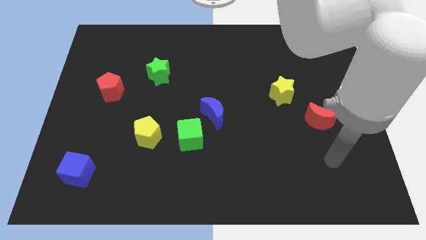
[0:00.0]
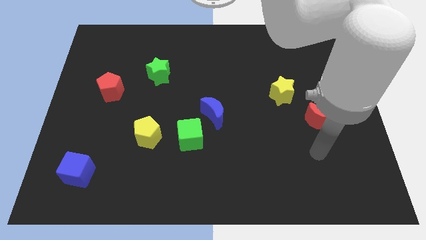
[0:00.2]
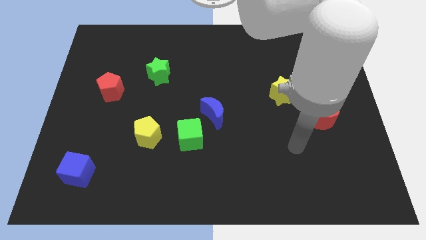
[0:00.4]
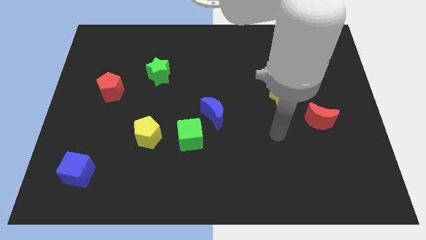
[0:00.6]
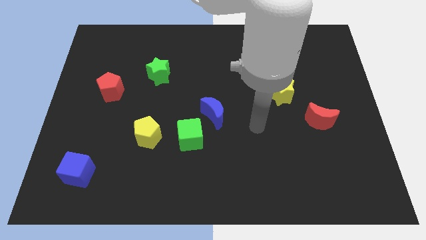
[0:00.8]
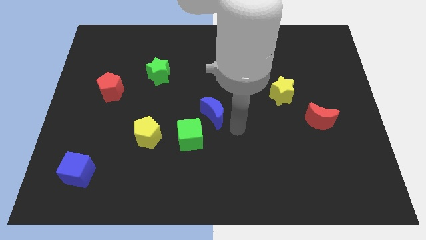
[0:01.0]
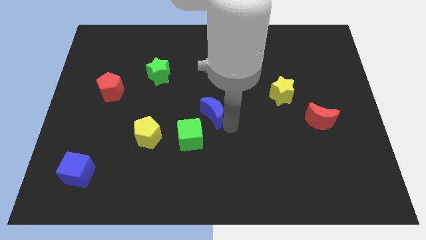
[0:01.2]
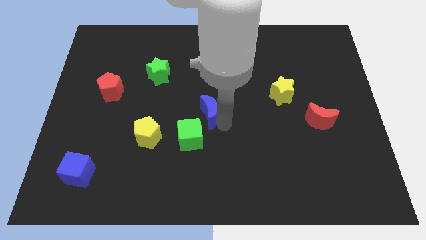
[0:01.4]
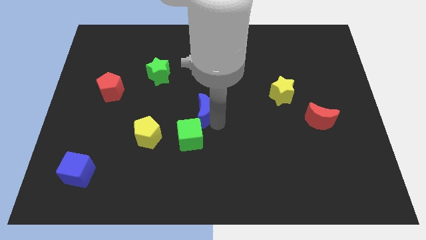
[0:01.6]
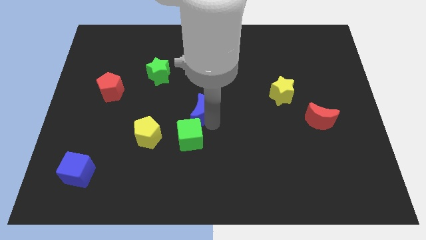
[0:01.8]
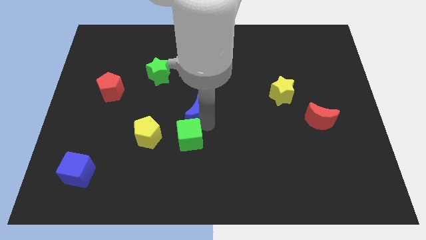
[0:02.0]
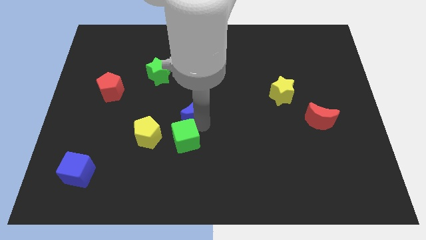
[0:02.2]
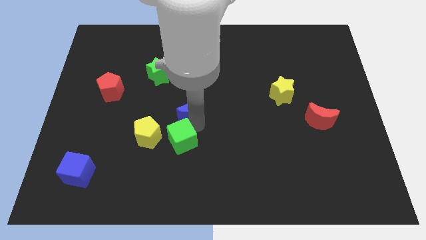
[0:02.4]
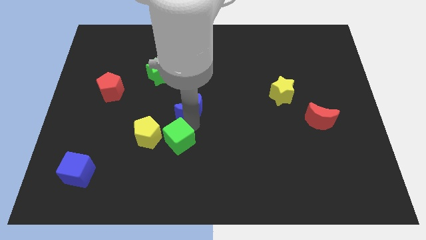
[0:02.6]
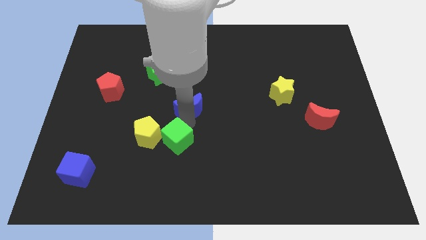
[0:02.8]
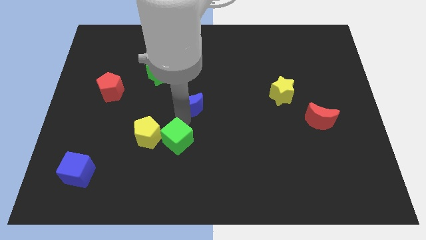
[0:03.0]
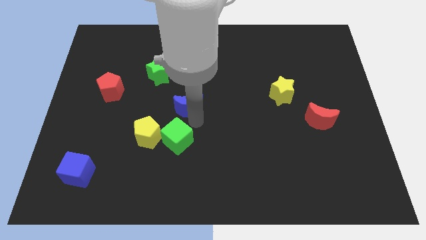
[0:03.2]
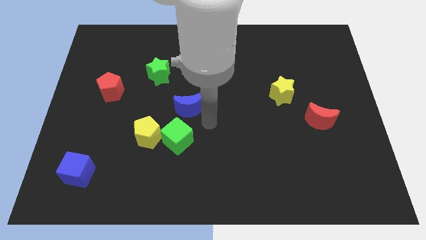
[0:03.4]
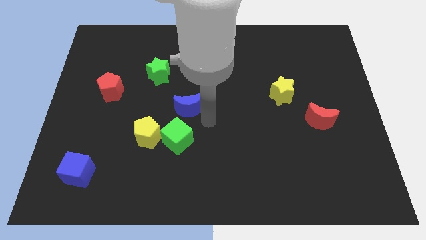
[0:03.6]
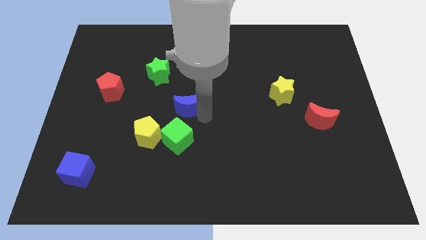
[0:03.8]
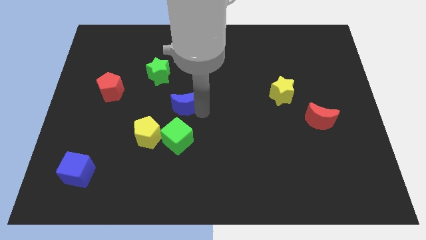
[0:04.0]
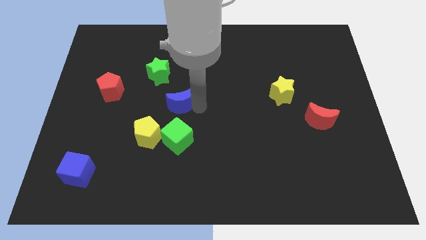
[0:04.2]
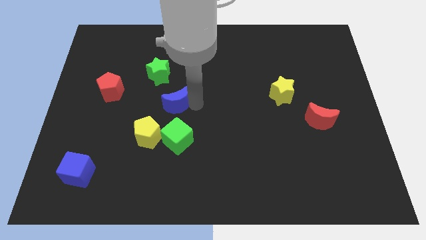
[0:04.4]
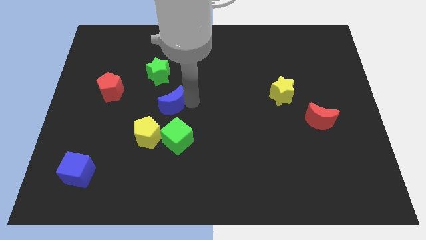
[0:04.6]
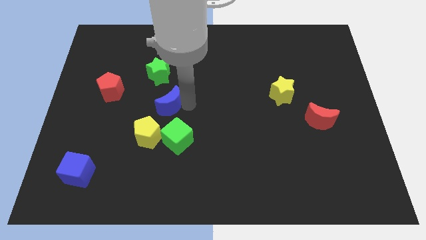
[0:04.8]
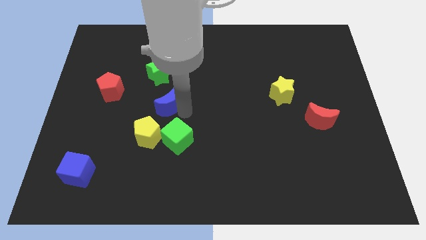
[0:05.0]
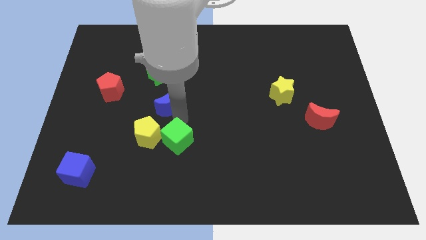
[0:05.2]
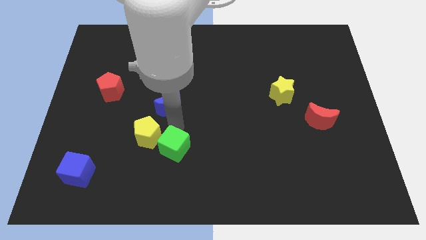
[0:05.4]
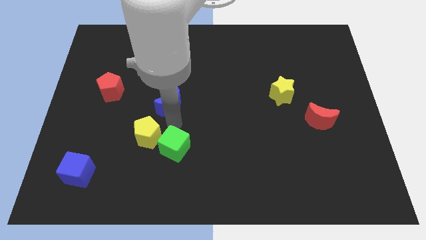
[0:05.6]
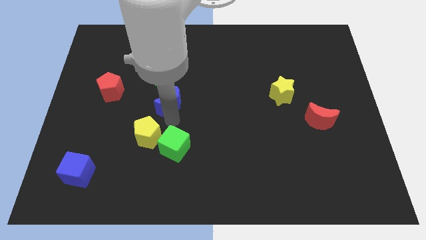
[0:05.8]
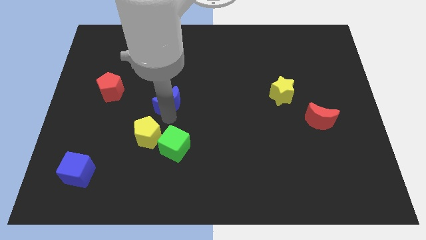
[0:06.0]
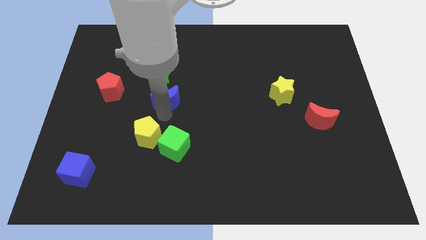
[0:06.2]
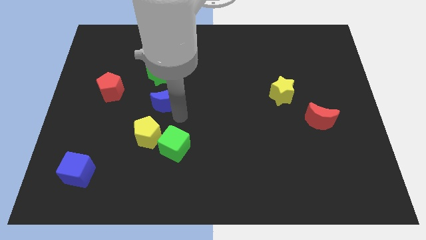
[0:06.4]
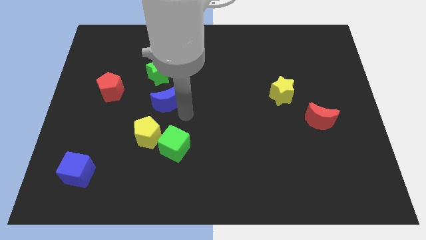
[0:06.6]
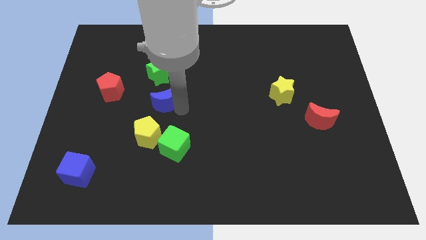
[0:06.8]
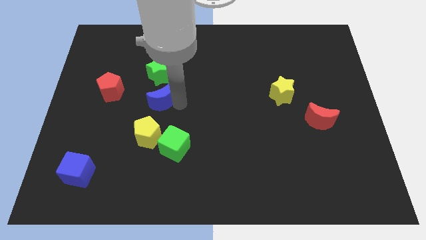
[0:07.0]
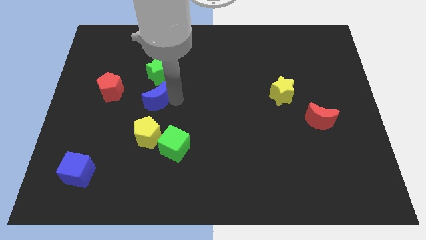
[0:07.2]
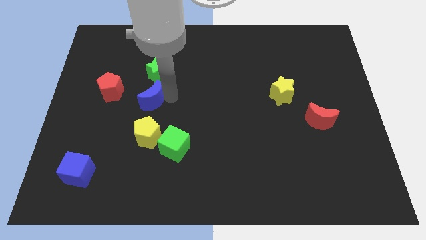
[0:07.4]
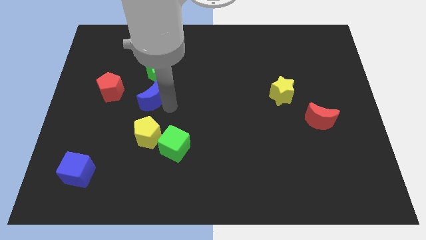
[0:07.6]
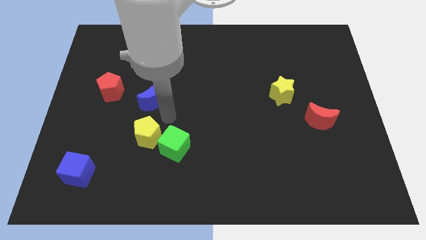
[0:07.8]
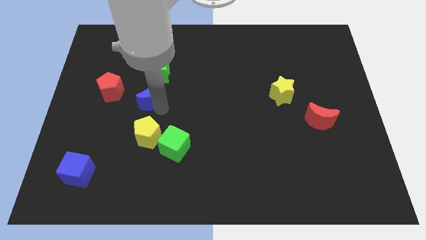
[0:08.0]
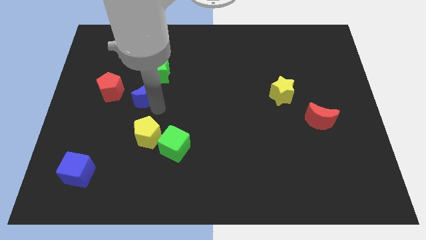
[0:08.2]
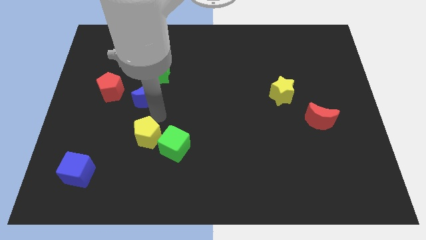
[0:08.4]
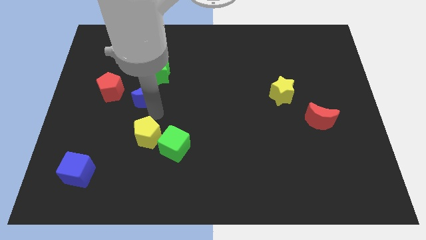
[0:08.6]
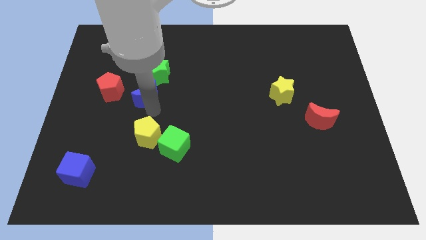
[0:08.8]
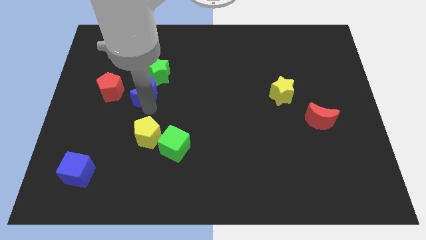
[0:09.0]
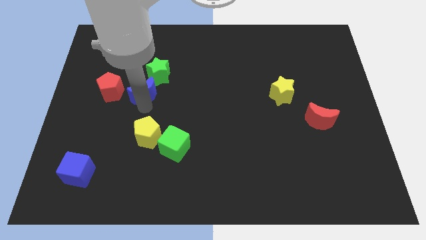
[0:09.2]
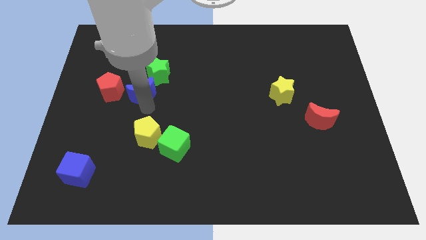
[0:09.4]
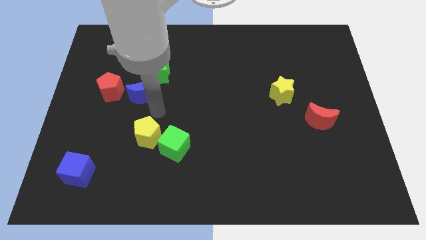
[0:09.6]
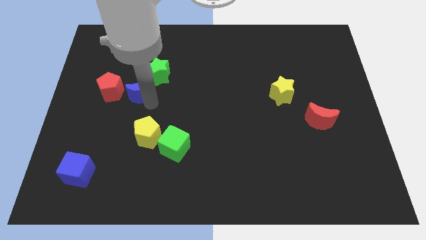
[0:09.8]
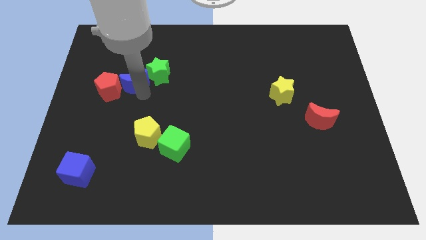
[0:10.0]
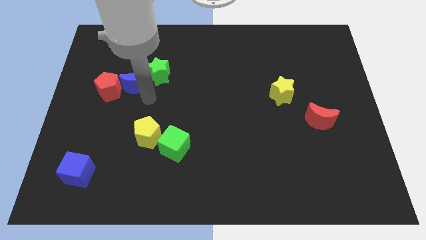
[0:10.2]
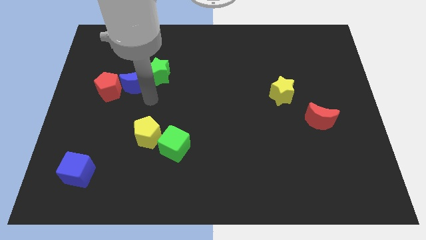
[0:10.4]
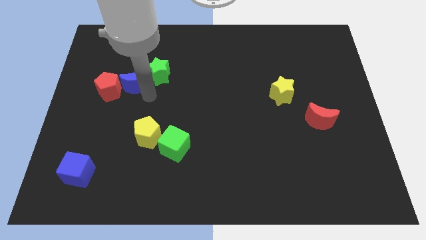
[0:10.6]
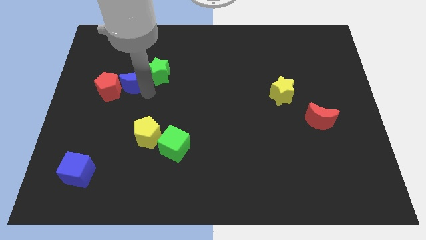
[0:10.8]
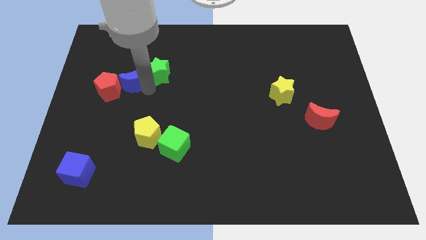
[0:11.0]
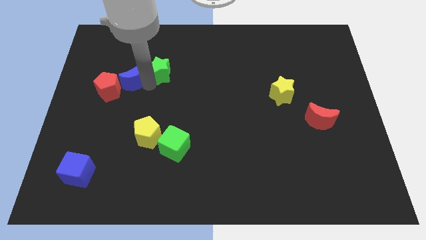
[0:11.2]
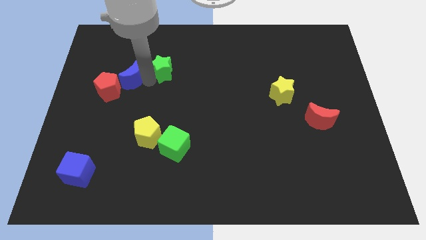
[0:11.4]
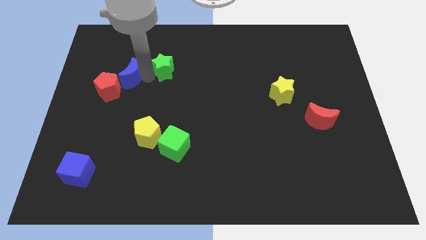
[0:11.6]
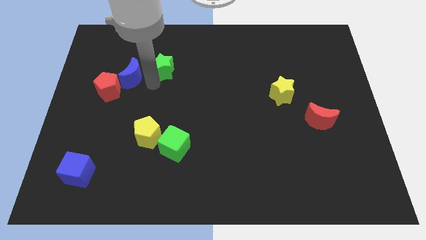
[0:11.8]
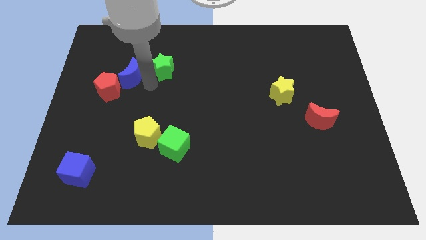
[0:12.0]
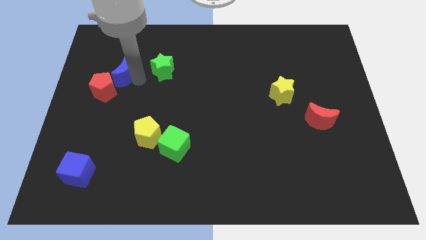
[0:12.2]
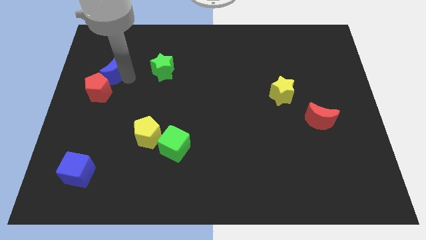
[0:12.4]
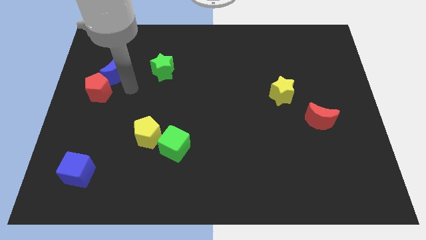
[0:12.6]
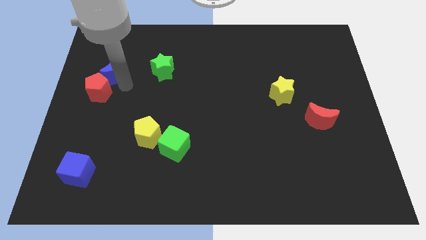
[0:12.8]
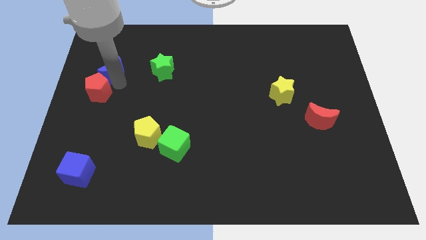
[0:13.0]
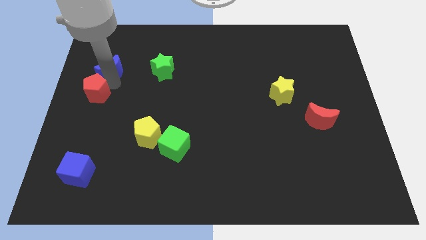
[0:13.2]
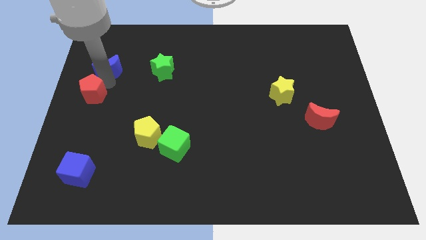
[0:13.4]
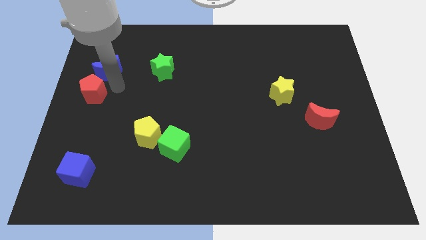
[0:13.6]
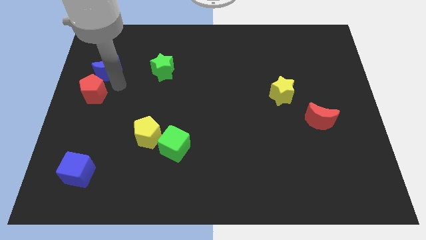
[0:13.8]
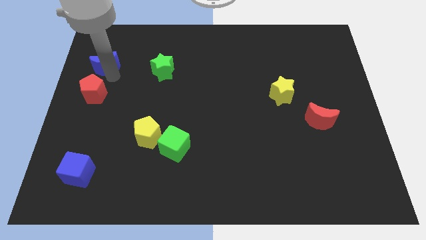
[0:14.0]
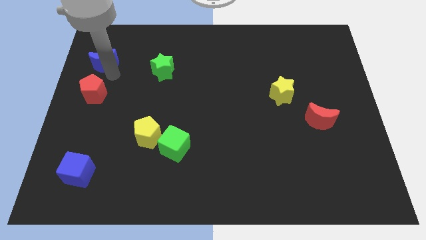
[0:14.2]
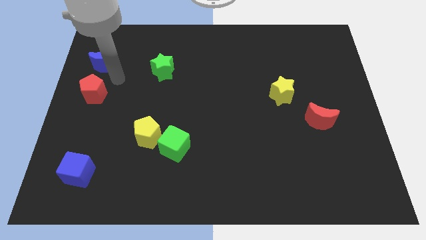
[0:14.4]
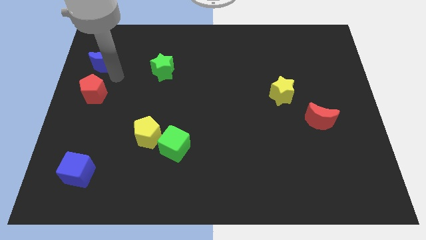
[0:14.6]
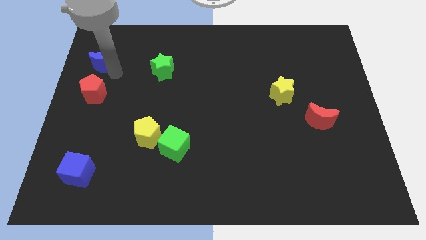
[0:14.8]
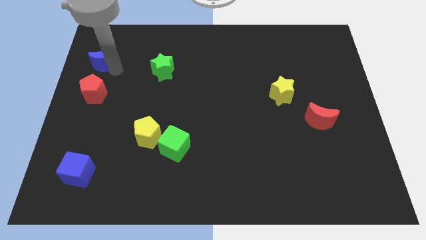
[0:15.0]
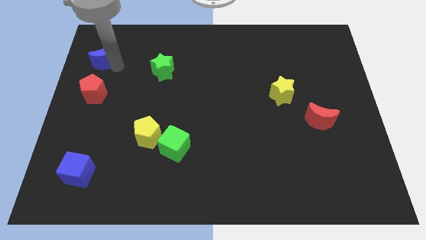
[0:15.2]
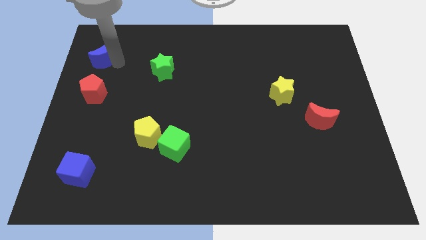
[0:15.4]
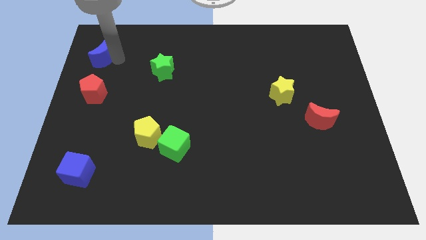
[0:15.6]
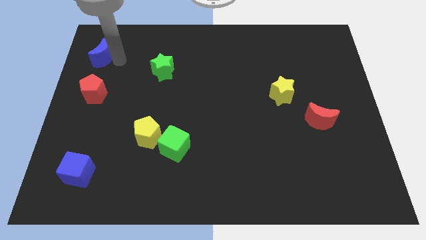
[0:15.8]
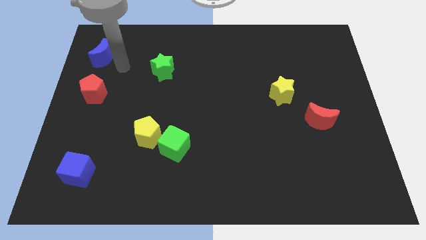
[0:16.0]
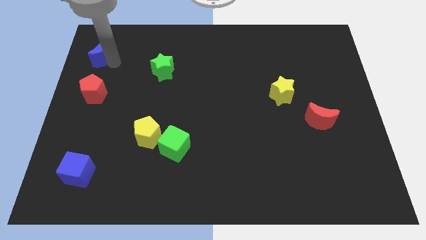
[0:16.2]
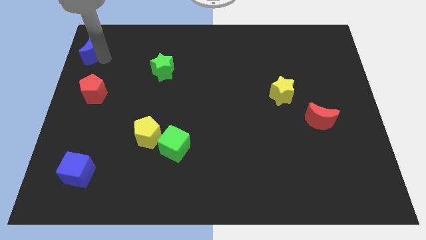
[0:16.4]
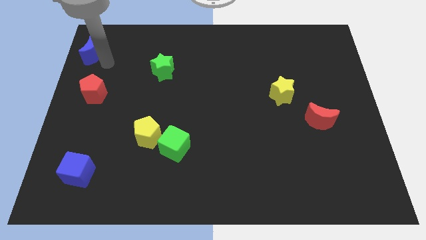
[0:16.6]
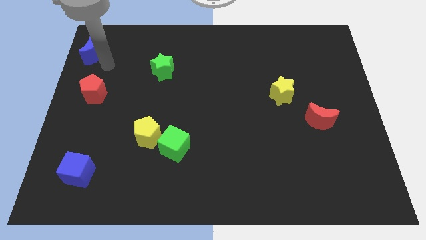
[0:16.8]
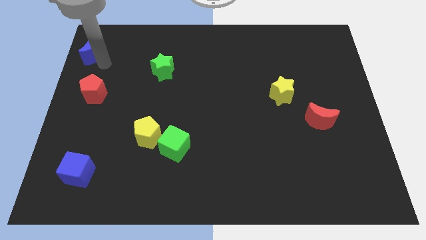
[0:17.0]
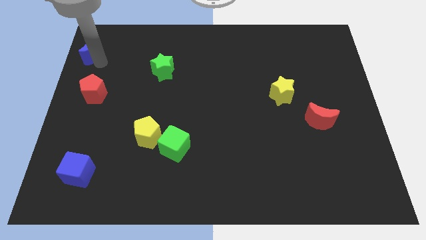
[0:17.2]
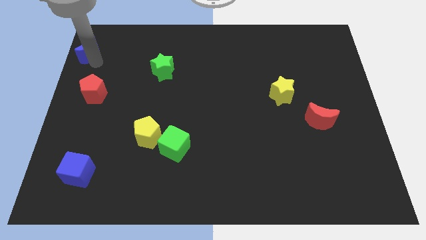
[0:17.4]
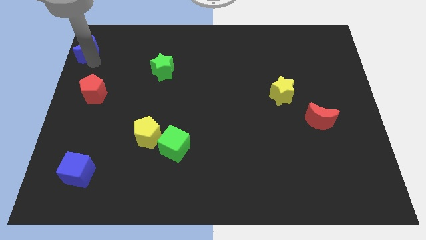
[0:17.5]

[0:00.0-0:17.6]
move the blue moon to the top left corner
